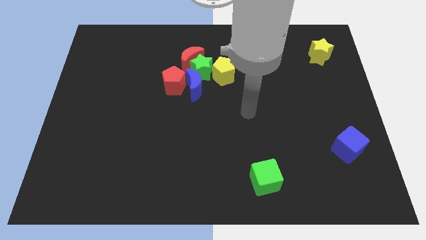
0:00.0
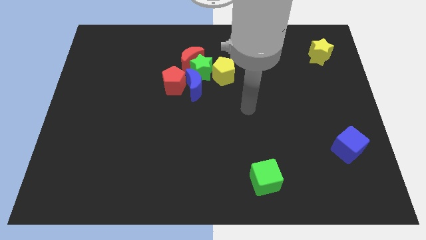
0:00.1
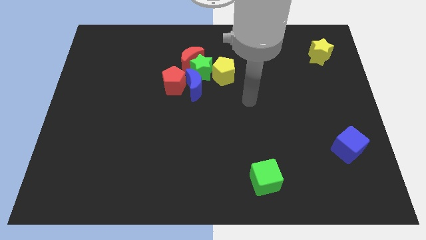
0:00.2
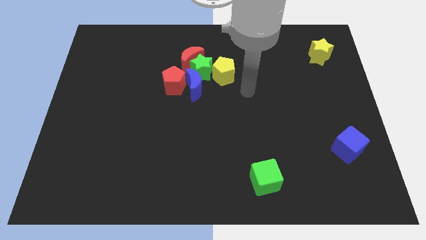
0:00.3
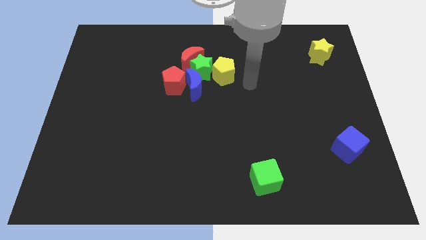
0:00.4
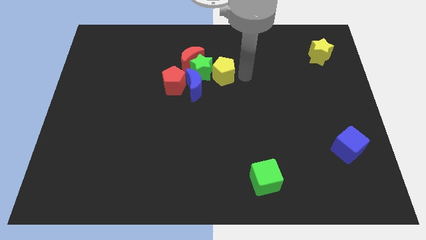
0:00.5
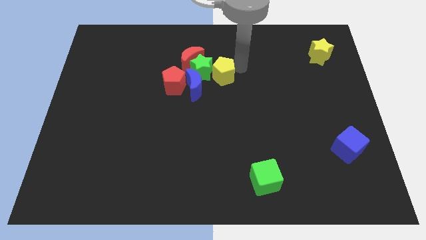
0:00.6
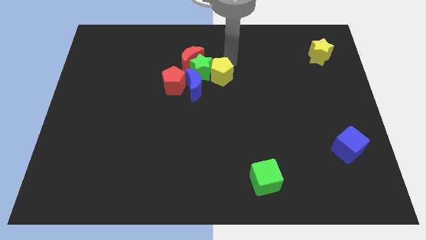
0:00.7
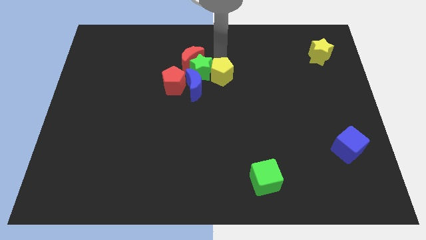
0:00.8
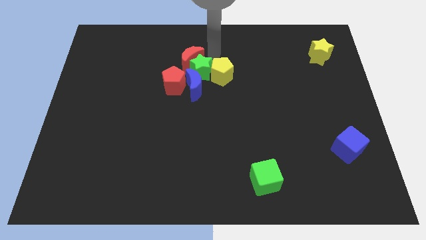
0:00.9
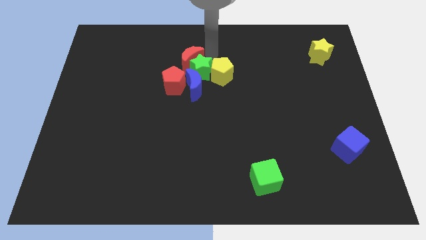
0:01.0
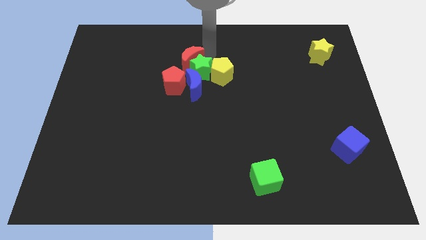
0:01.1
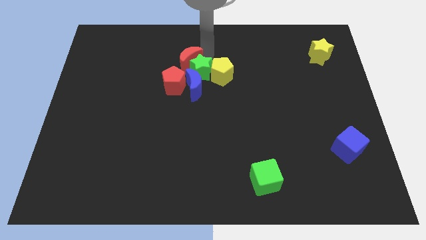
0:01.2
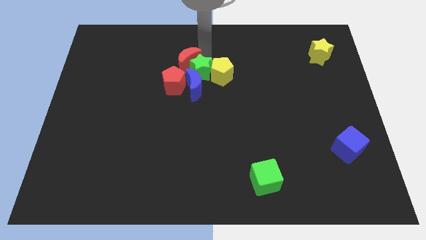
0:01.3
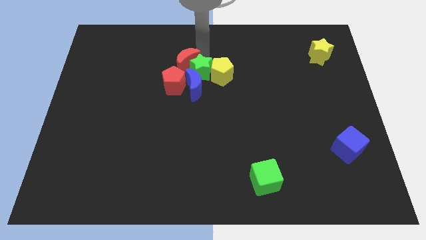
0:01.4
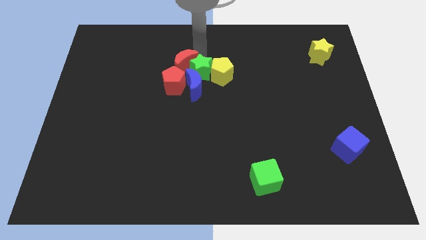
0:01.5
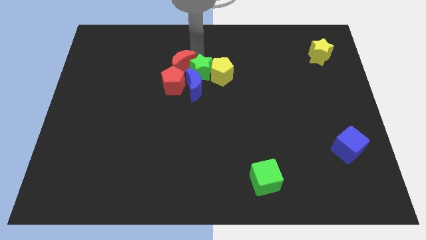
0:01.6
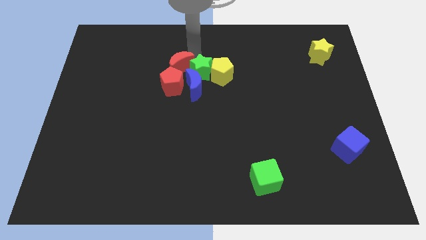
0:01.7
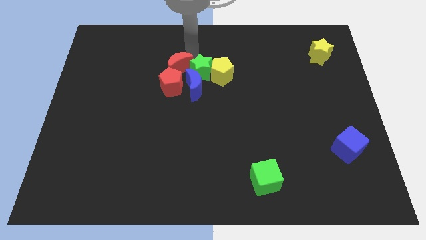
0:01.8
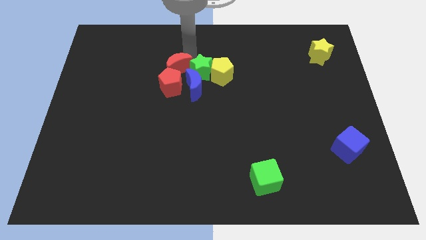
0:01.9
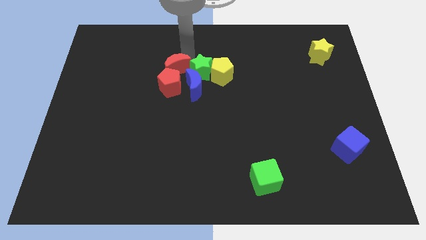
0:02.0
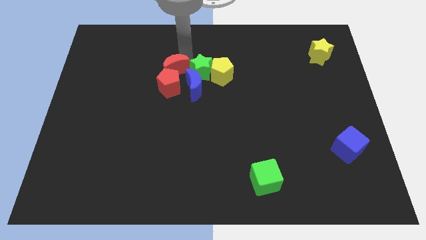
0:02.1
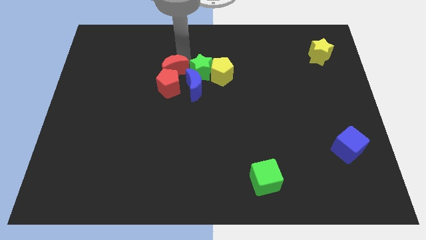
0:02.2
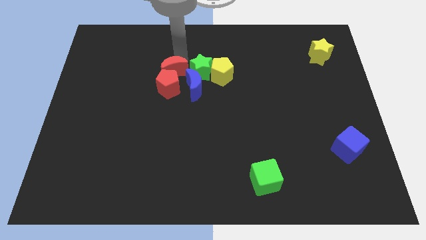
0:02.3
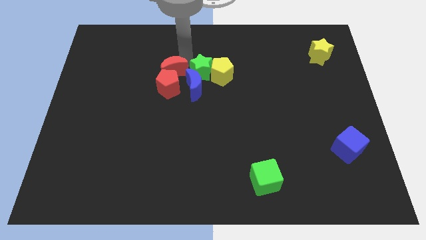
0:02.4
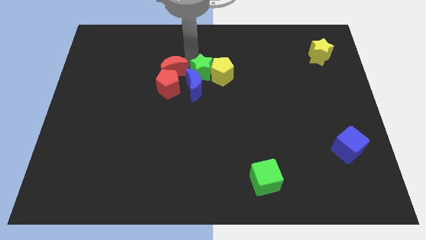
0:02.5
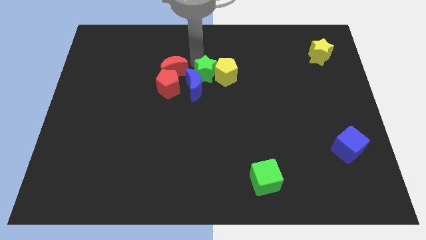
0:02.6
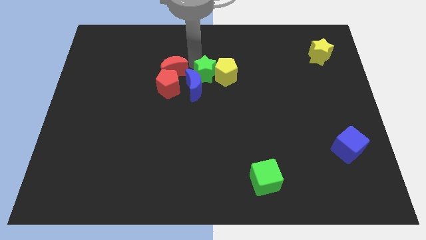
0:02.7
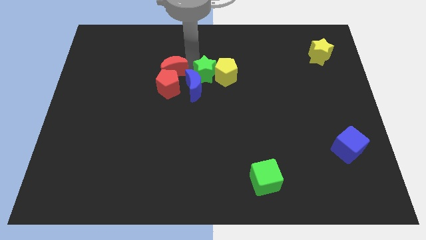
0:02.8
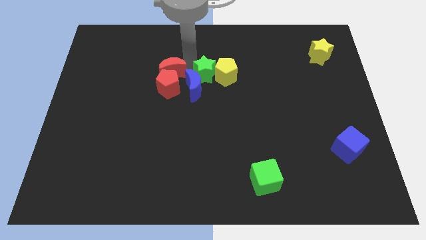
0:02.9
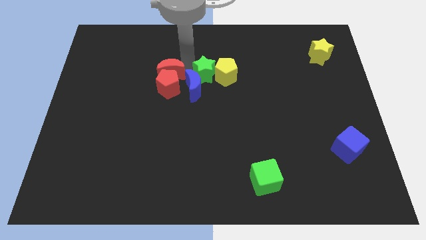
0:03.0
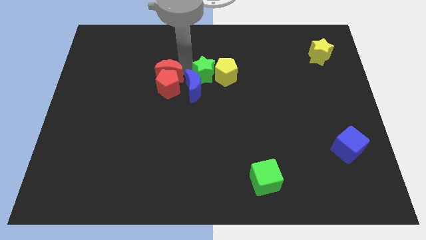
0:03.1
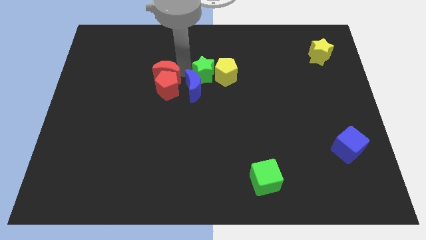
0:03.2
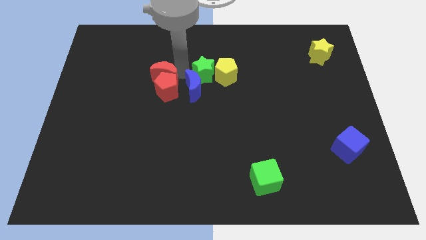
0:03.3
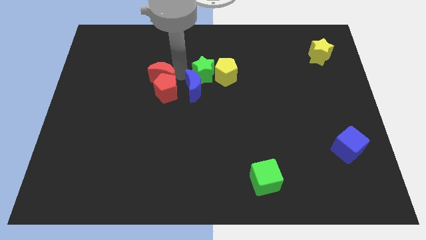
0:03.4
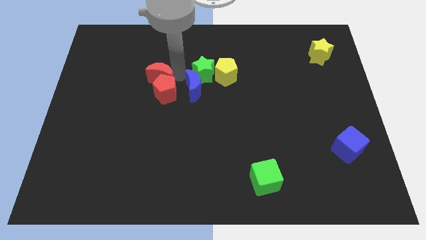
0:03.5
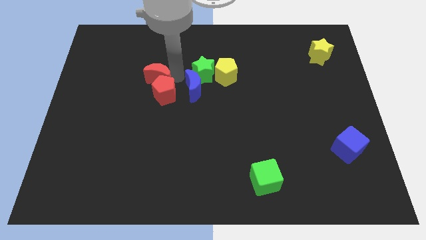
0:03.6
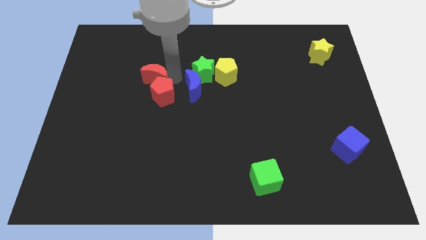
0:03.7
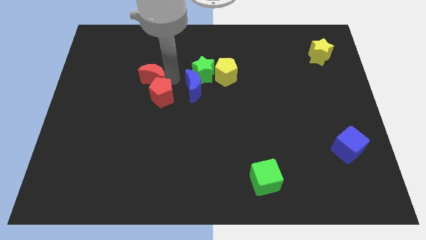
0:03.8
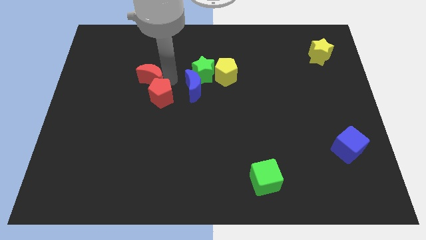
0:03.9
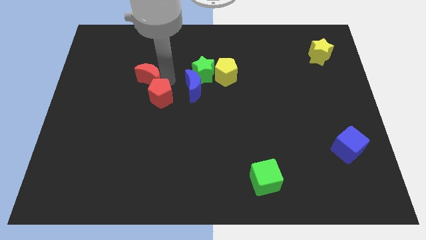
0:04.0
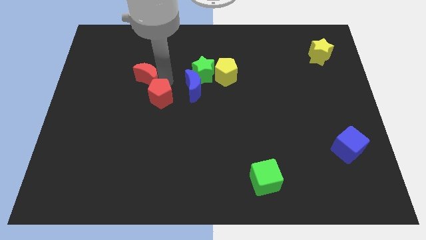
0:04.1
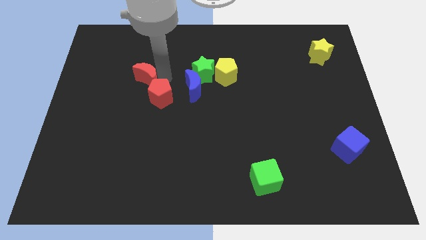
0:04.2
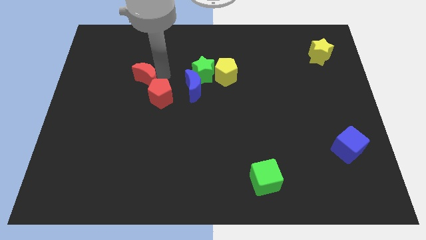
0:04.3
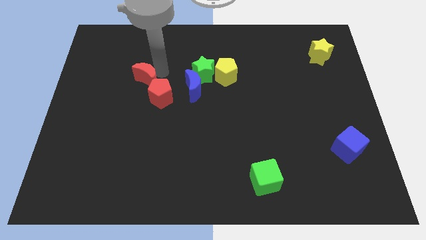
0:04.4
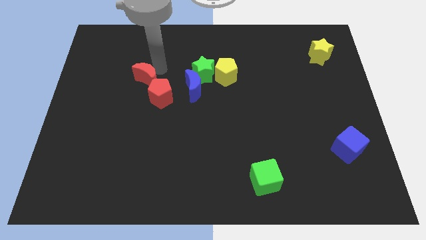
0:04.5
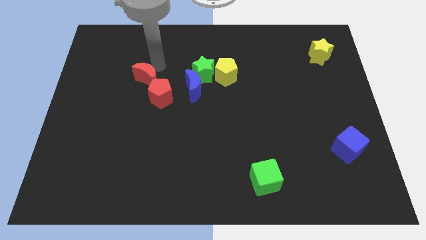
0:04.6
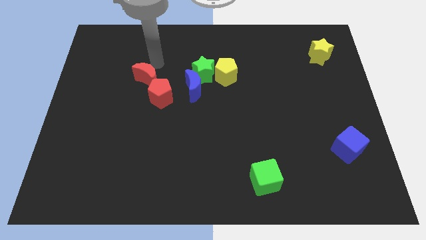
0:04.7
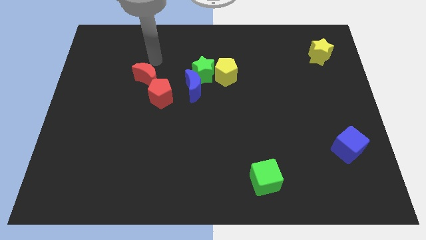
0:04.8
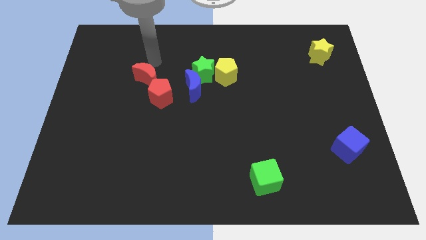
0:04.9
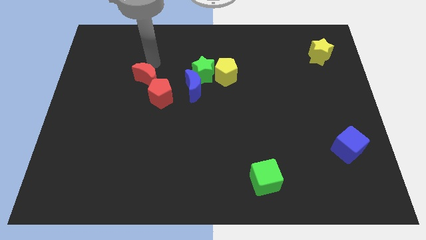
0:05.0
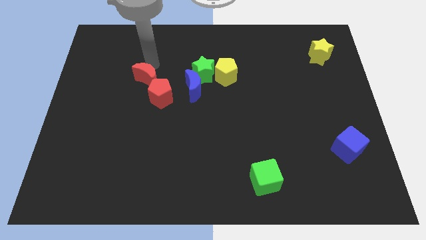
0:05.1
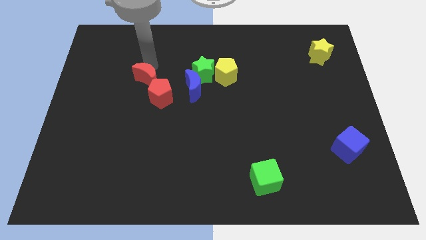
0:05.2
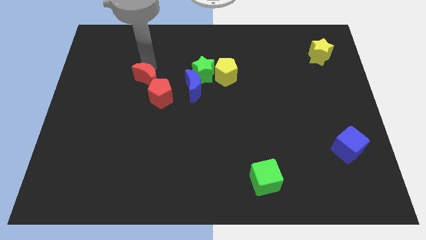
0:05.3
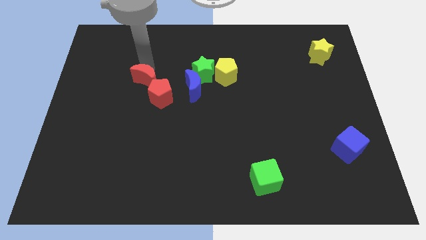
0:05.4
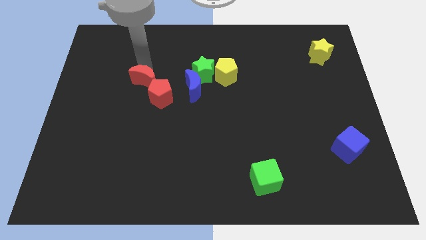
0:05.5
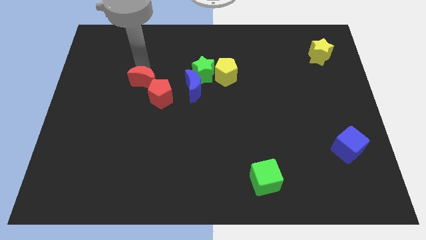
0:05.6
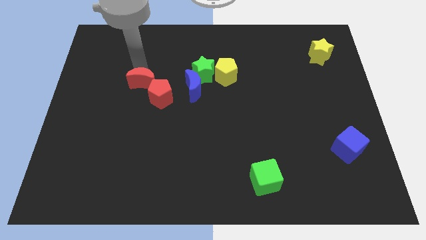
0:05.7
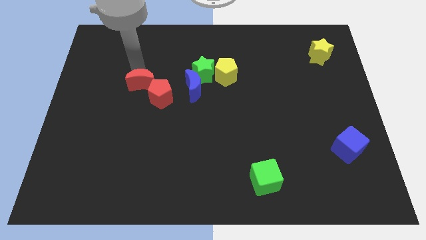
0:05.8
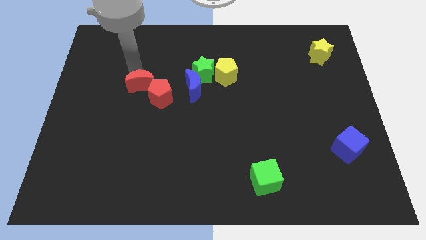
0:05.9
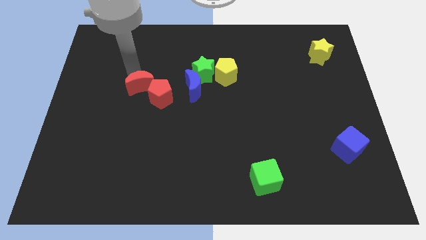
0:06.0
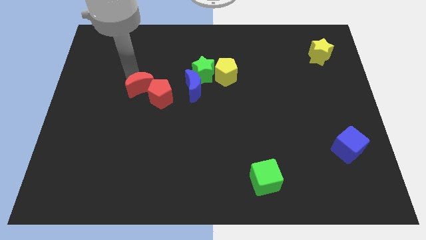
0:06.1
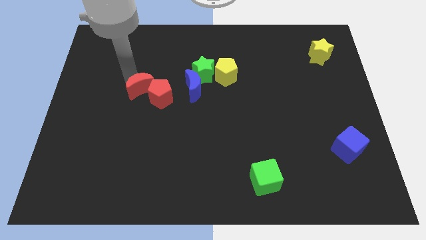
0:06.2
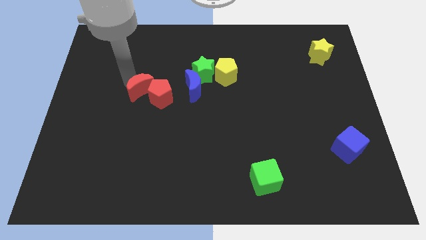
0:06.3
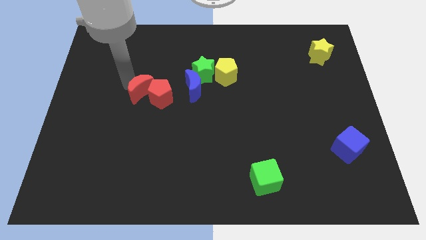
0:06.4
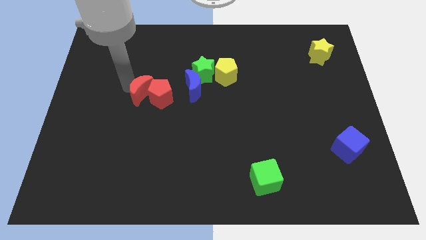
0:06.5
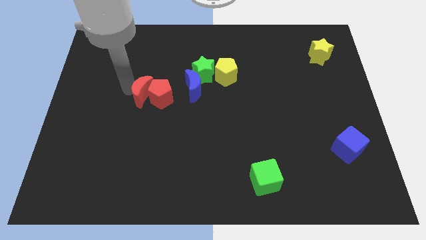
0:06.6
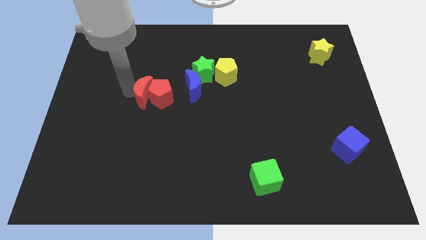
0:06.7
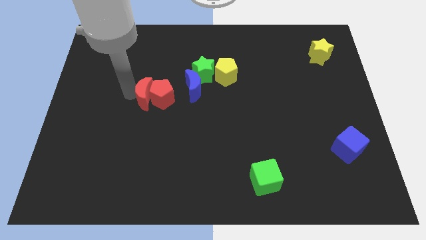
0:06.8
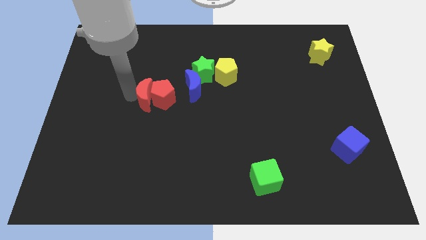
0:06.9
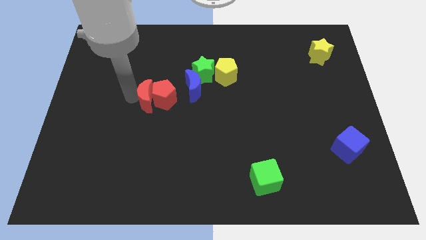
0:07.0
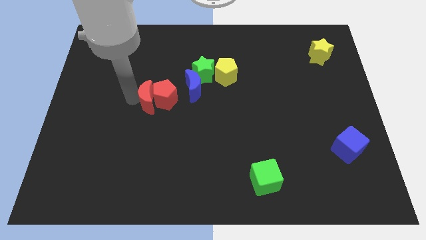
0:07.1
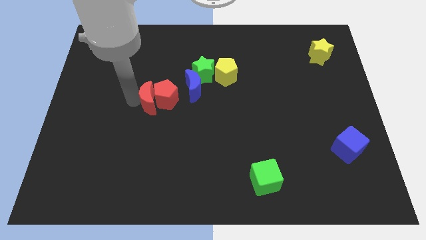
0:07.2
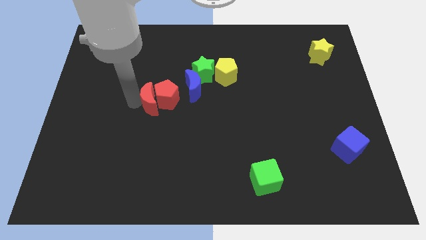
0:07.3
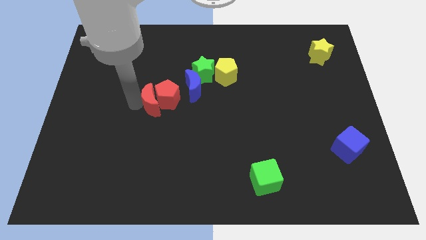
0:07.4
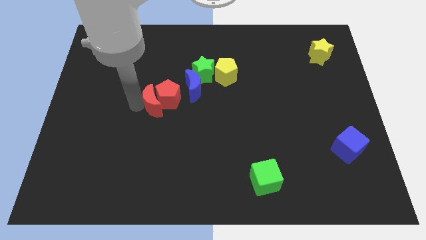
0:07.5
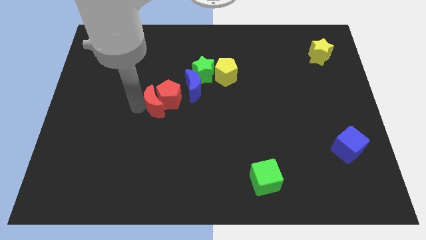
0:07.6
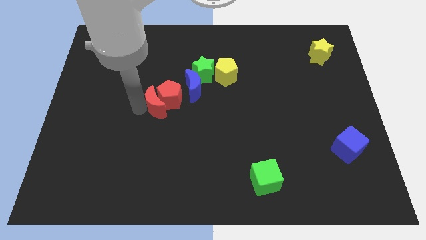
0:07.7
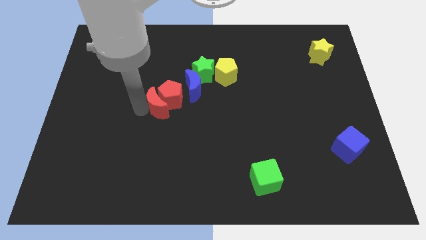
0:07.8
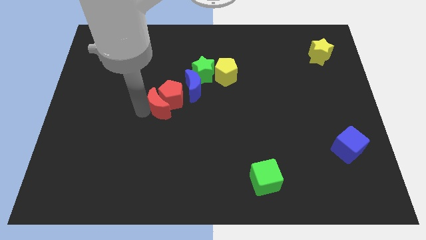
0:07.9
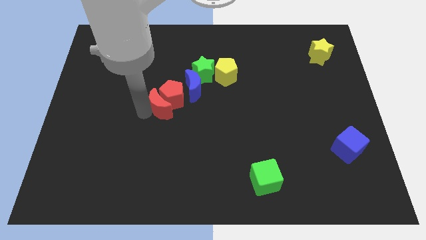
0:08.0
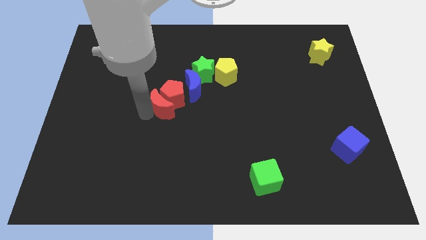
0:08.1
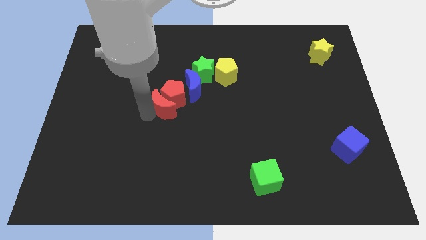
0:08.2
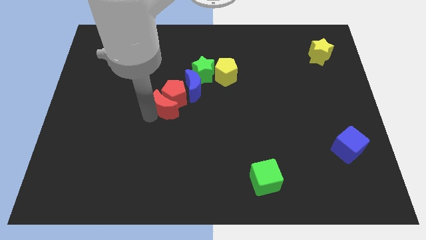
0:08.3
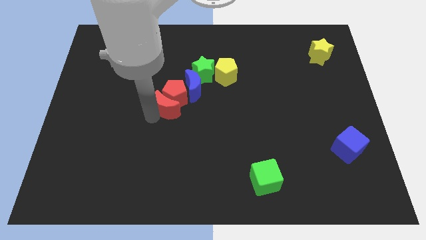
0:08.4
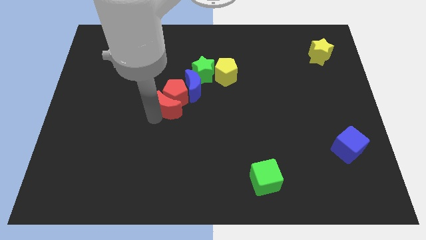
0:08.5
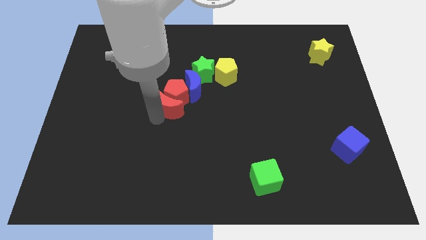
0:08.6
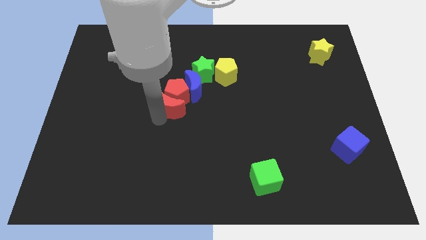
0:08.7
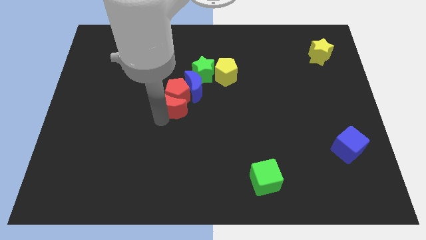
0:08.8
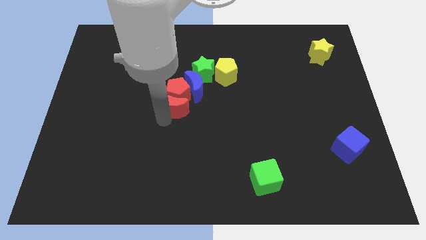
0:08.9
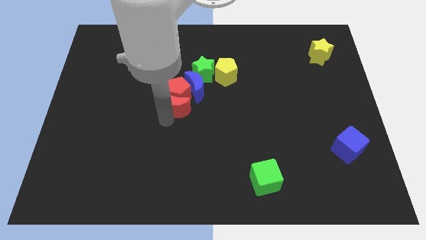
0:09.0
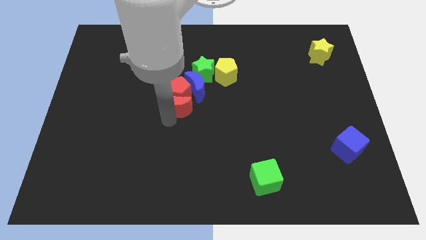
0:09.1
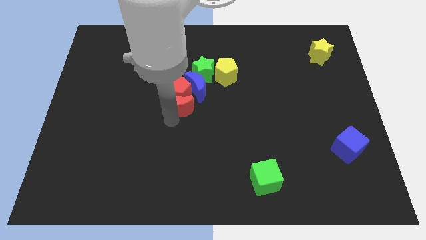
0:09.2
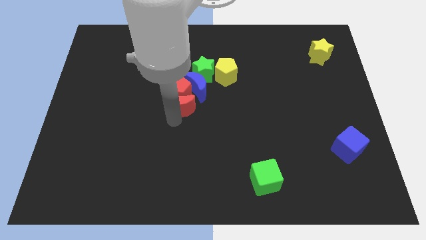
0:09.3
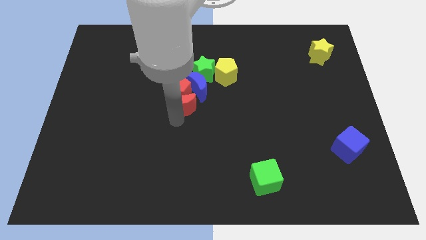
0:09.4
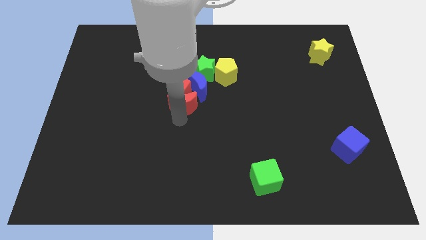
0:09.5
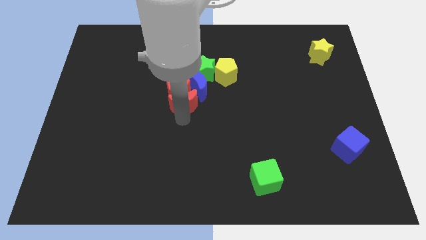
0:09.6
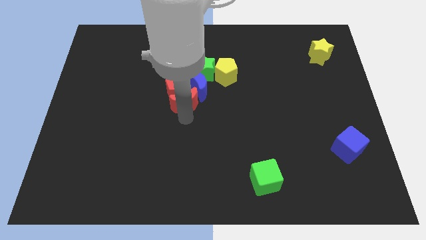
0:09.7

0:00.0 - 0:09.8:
put the red moon close to the blue moon
